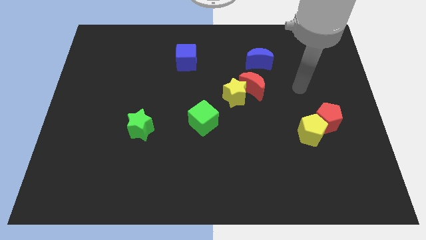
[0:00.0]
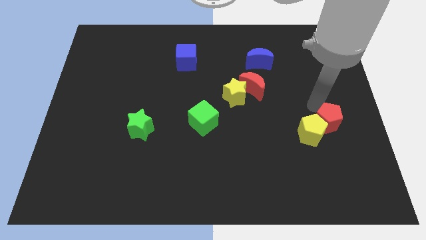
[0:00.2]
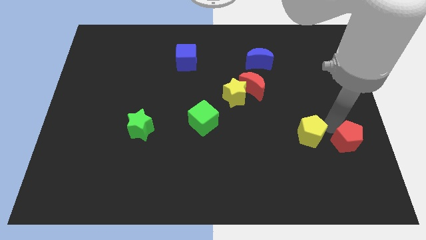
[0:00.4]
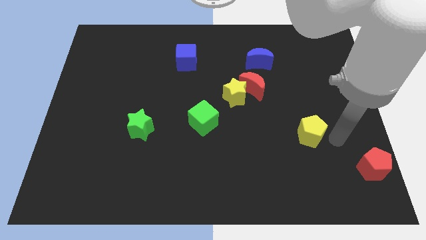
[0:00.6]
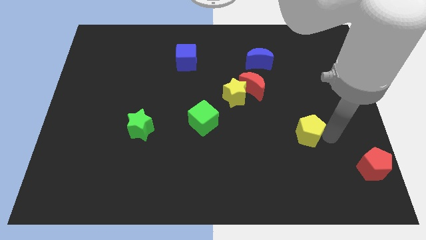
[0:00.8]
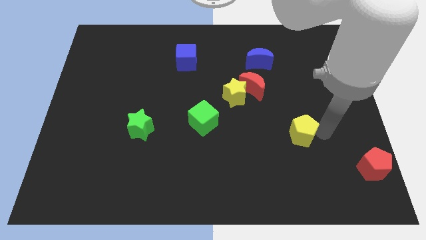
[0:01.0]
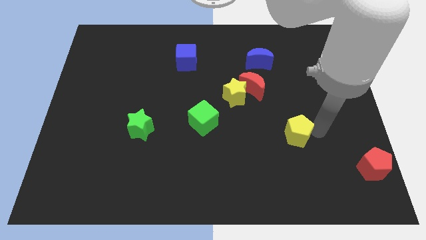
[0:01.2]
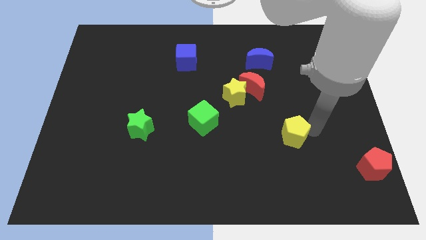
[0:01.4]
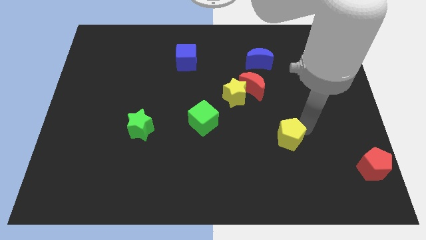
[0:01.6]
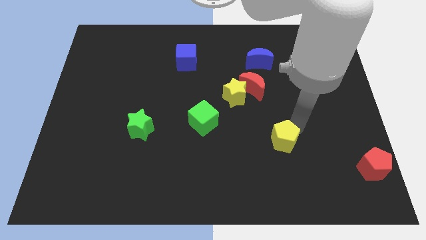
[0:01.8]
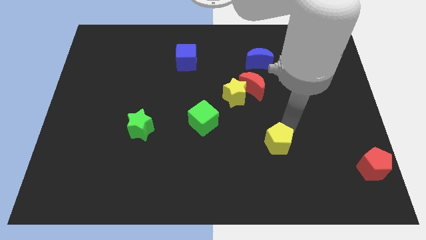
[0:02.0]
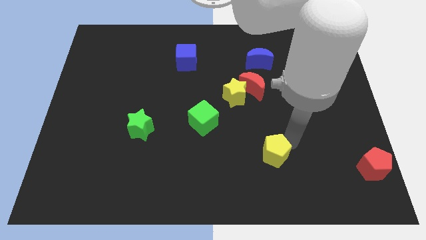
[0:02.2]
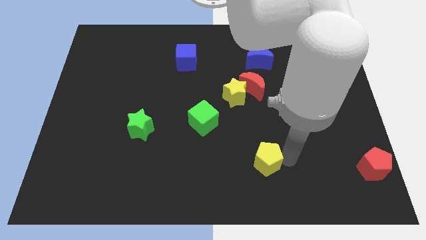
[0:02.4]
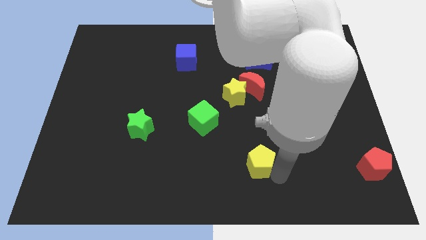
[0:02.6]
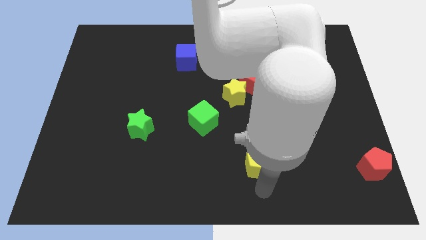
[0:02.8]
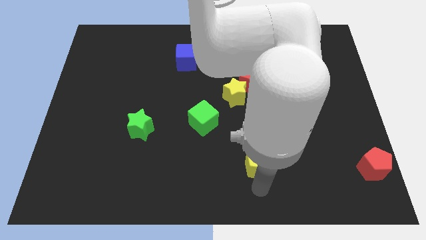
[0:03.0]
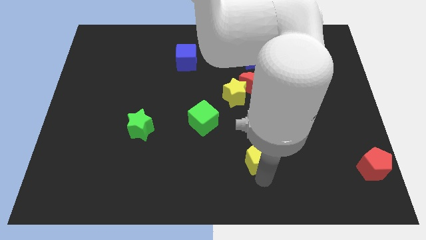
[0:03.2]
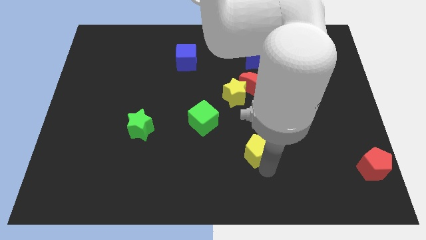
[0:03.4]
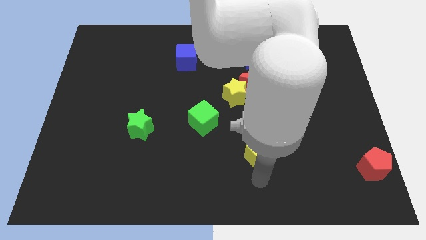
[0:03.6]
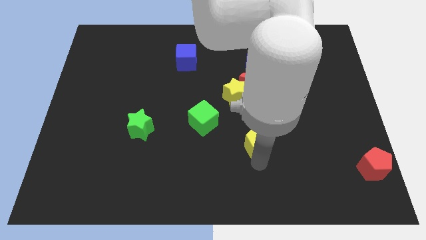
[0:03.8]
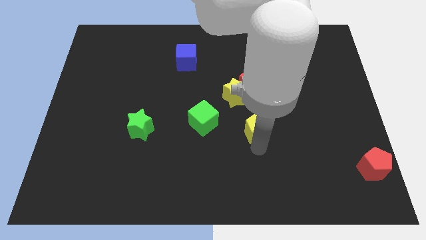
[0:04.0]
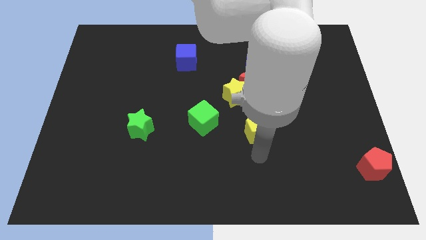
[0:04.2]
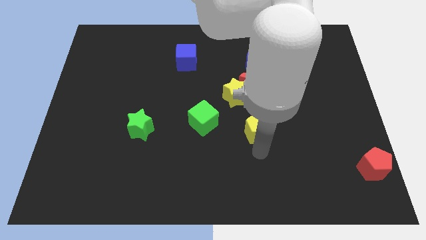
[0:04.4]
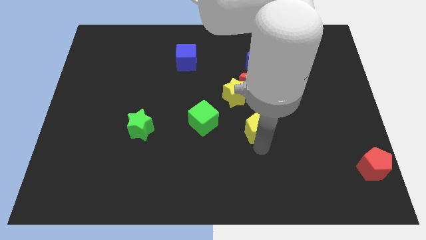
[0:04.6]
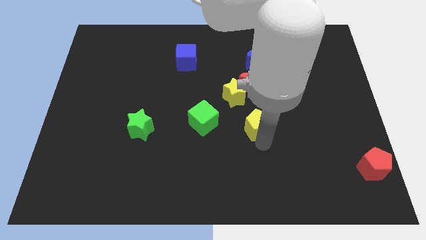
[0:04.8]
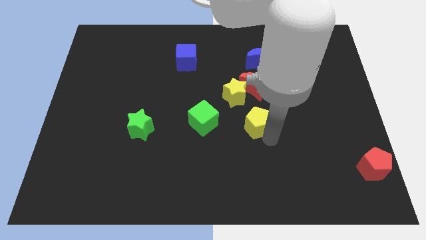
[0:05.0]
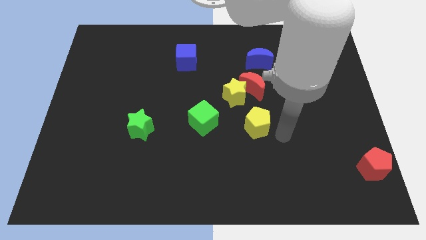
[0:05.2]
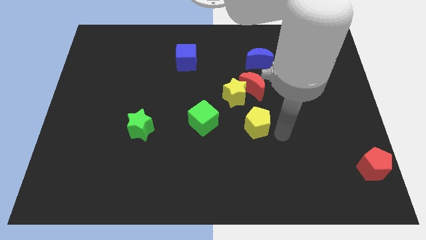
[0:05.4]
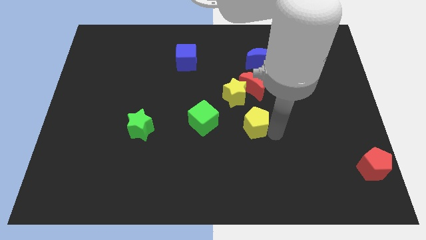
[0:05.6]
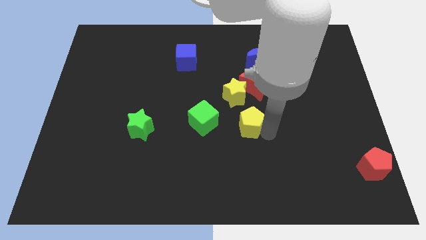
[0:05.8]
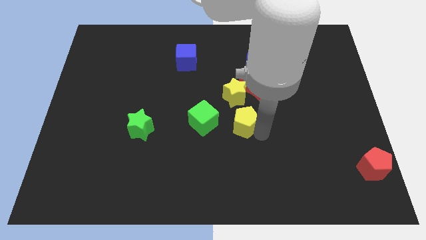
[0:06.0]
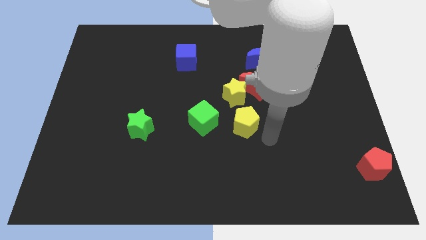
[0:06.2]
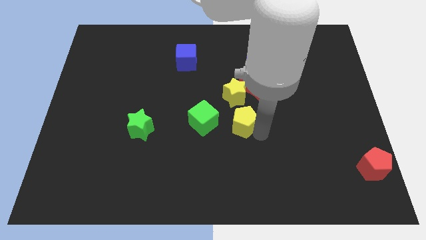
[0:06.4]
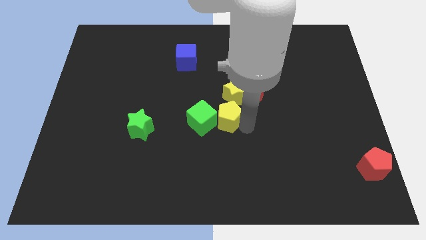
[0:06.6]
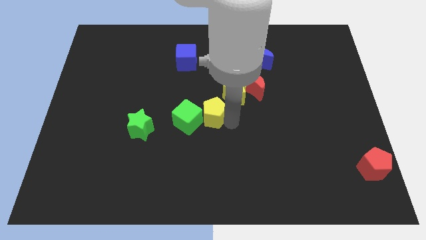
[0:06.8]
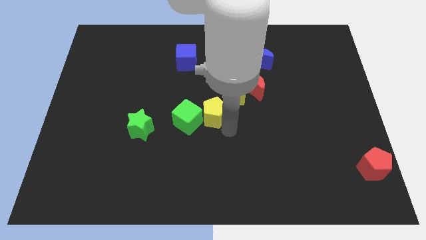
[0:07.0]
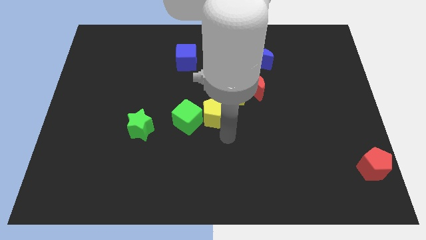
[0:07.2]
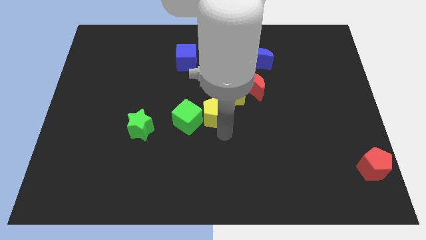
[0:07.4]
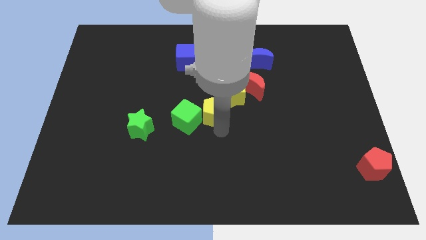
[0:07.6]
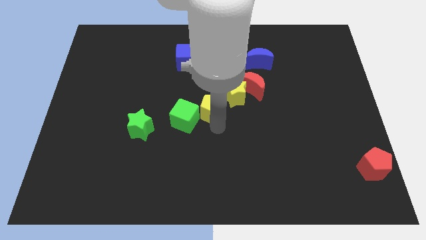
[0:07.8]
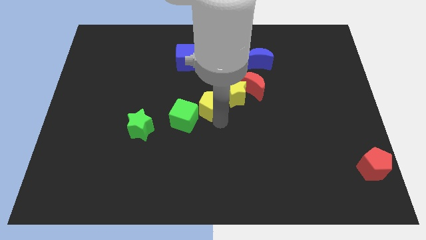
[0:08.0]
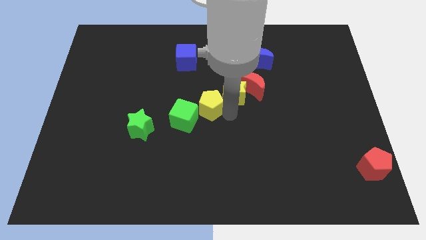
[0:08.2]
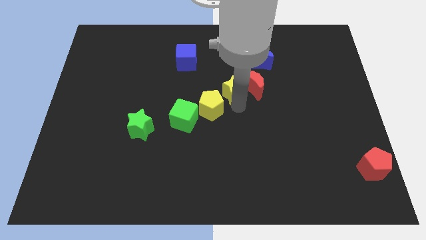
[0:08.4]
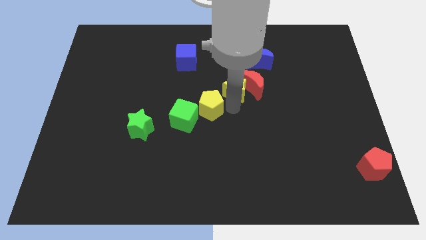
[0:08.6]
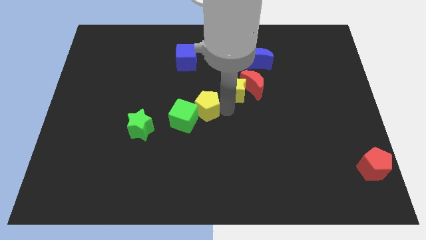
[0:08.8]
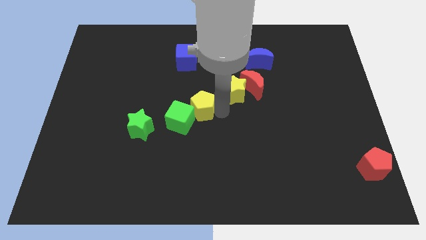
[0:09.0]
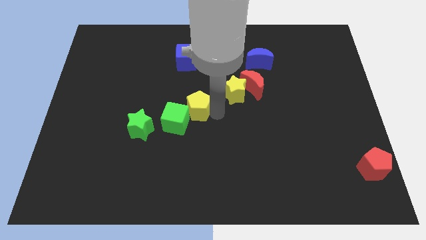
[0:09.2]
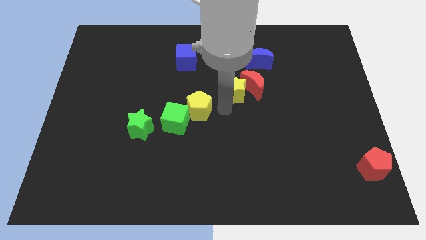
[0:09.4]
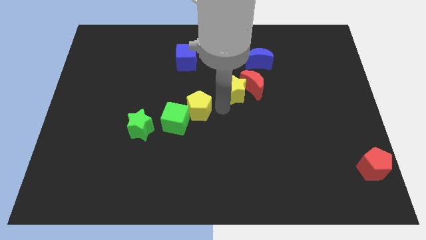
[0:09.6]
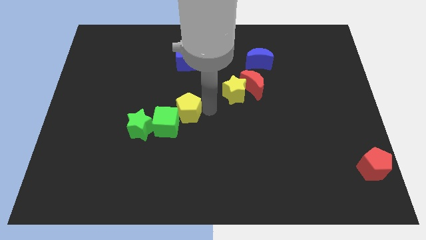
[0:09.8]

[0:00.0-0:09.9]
put the yellow pentagon to the top right of the green star

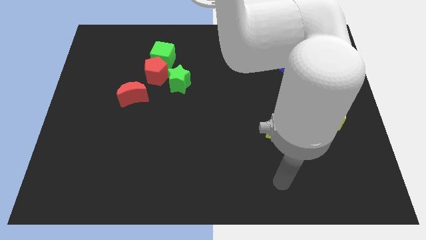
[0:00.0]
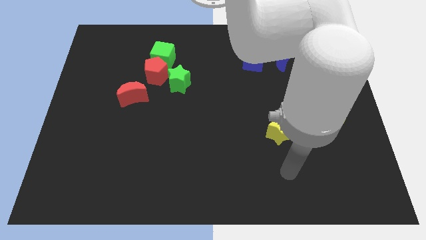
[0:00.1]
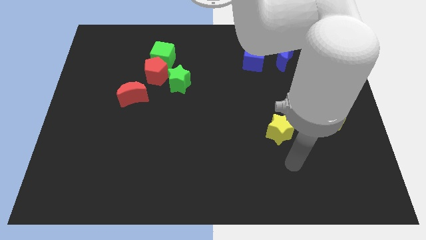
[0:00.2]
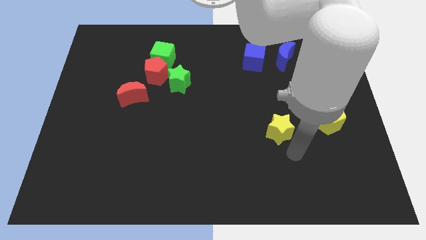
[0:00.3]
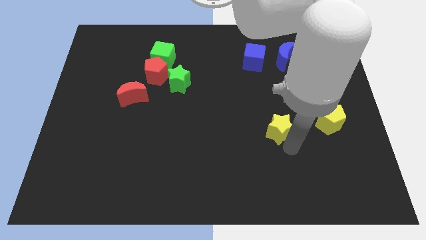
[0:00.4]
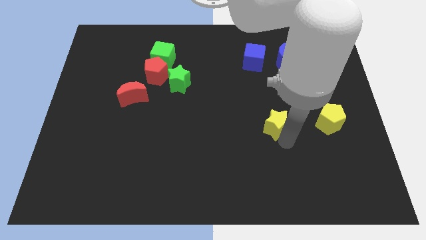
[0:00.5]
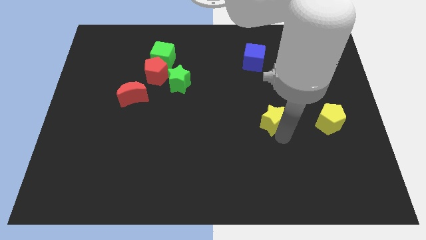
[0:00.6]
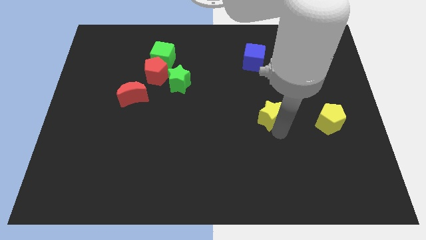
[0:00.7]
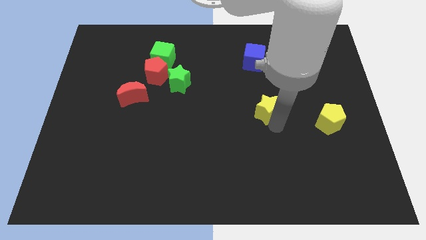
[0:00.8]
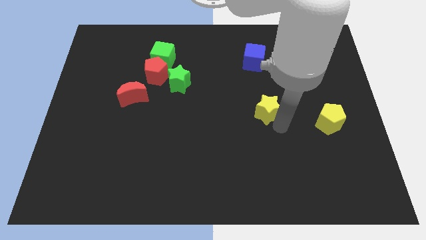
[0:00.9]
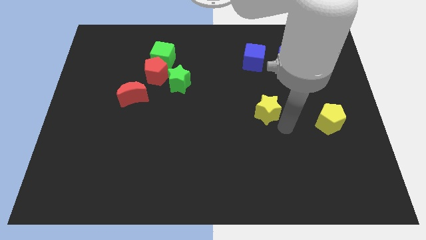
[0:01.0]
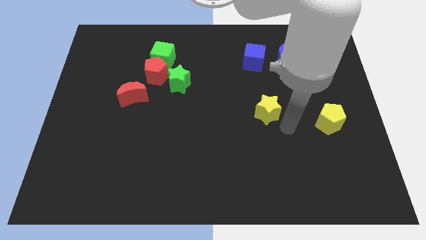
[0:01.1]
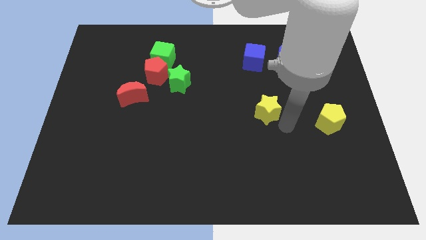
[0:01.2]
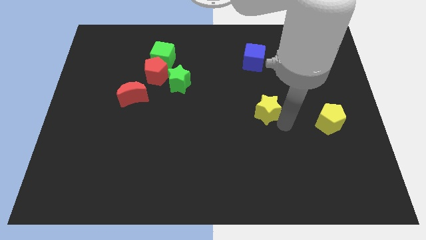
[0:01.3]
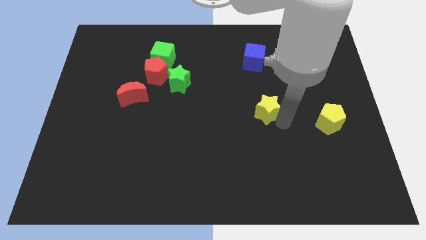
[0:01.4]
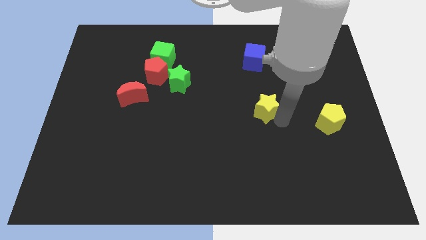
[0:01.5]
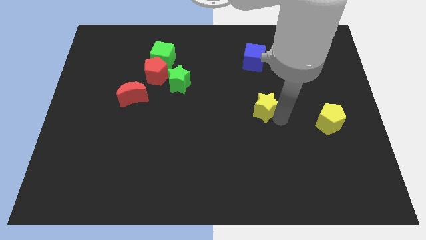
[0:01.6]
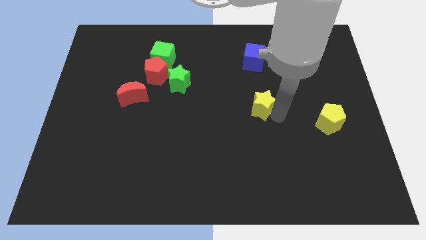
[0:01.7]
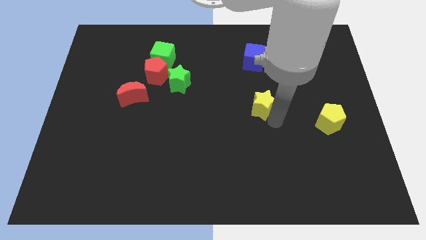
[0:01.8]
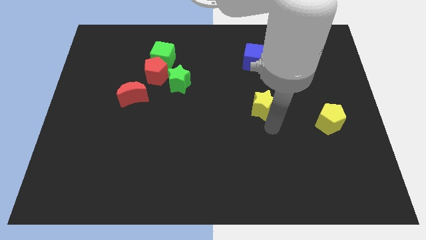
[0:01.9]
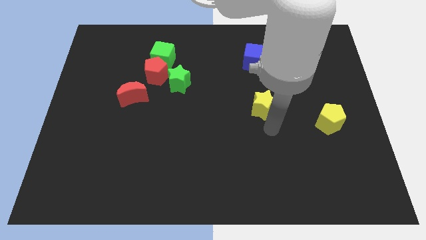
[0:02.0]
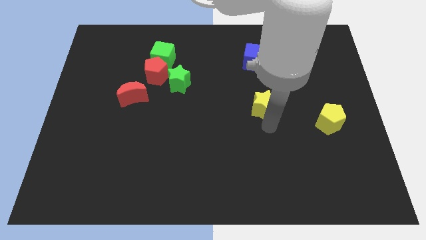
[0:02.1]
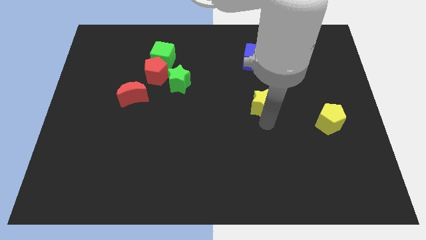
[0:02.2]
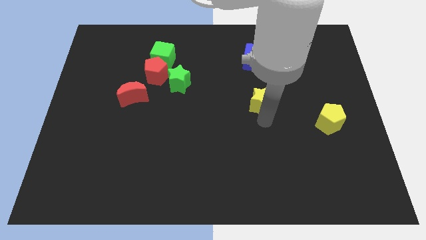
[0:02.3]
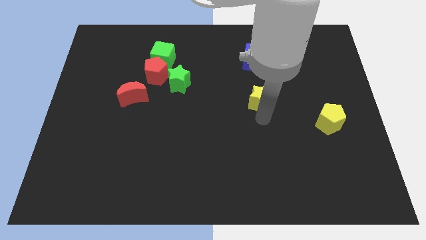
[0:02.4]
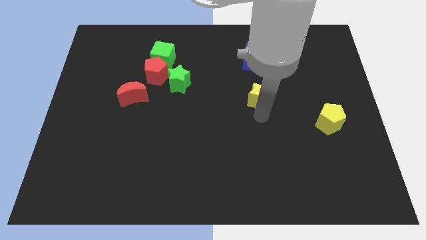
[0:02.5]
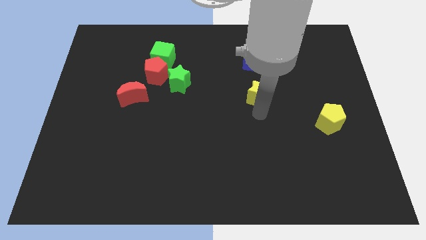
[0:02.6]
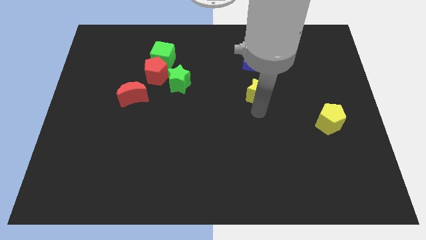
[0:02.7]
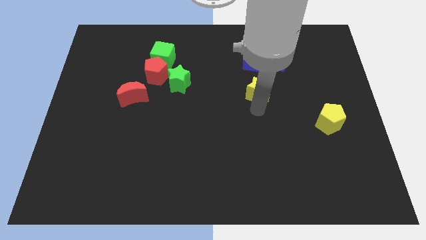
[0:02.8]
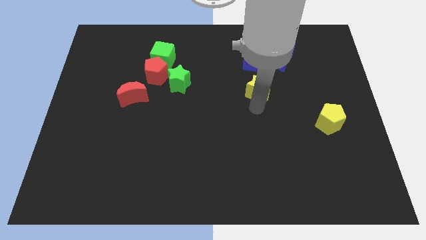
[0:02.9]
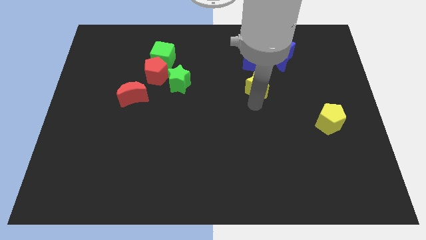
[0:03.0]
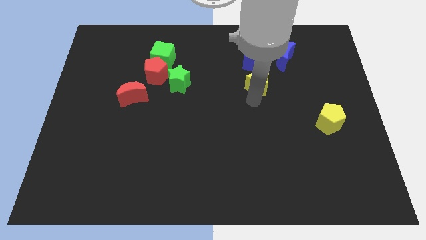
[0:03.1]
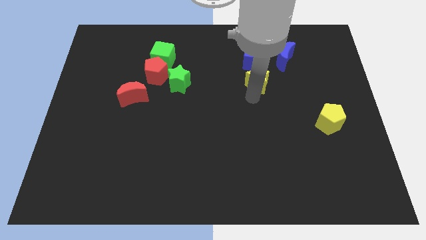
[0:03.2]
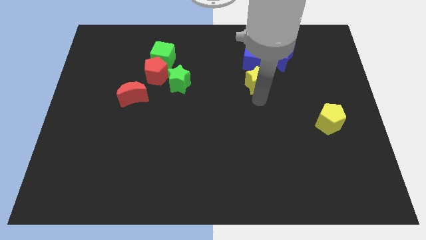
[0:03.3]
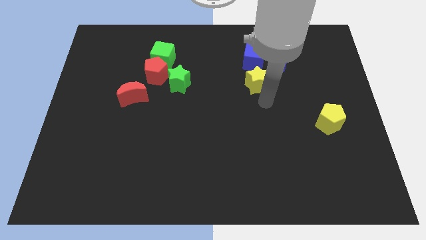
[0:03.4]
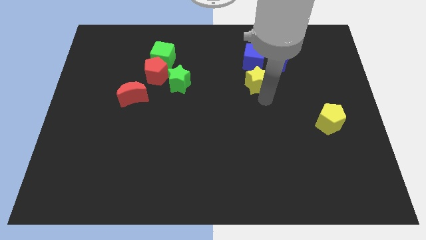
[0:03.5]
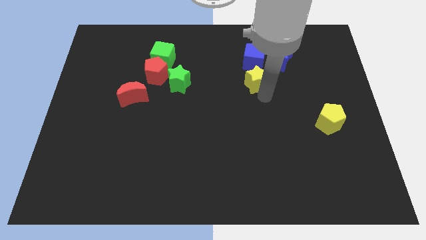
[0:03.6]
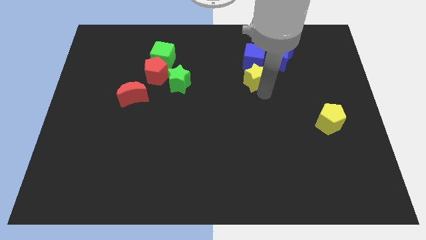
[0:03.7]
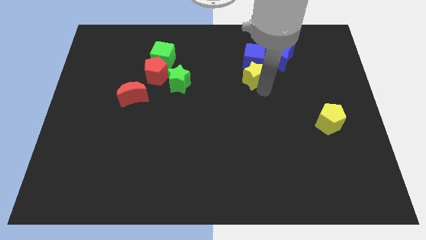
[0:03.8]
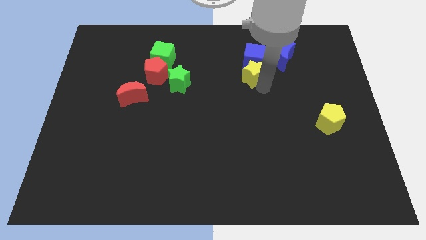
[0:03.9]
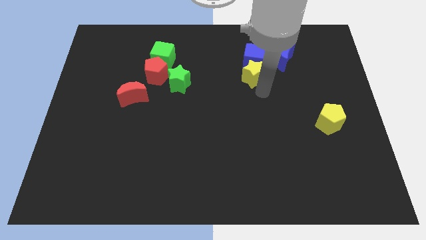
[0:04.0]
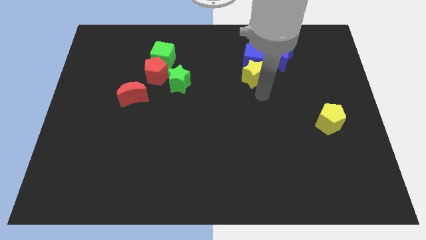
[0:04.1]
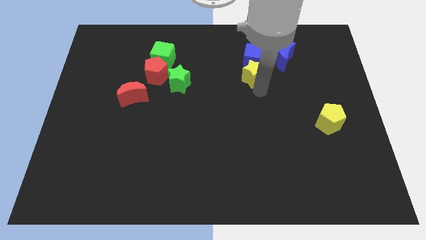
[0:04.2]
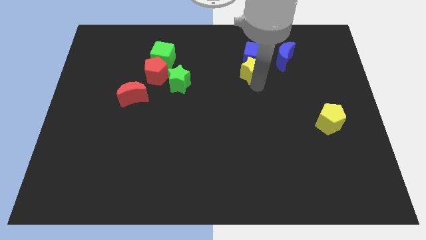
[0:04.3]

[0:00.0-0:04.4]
move the yellow star left of the blue moon
